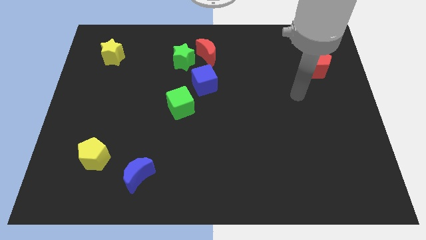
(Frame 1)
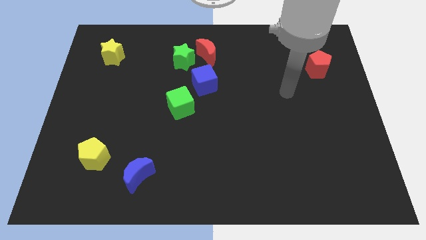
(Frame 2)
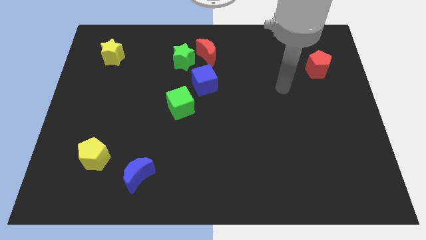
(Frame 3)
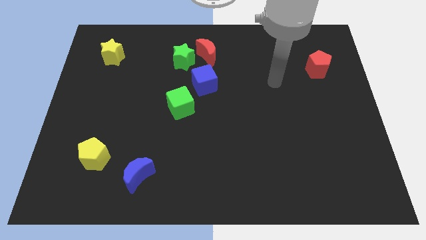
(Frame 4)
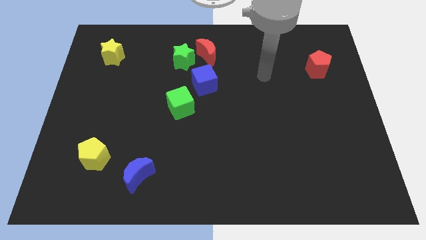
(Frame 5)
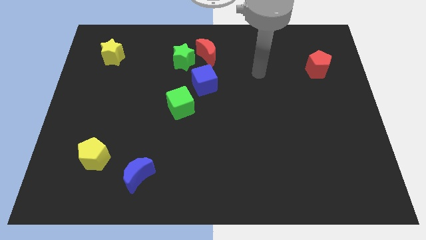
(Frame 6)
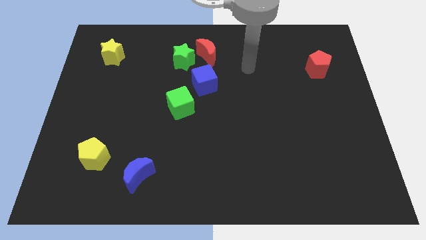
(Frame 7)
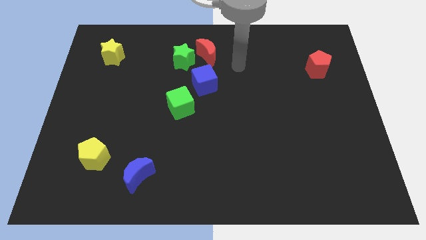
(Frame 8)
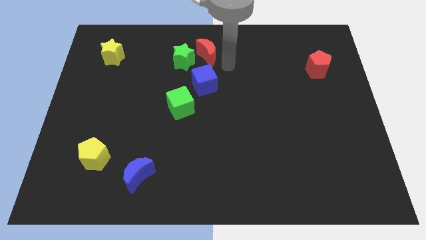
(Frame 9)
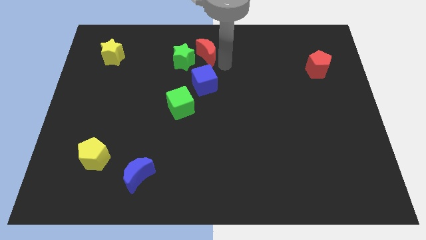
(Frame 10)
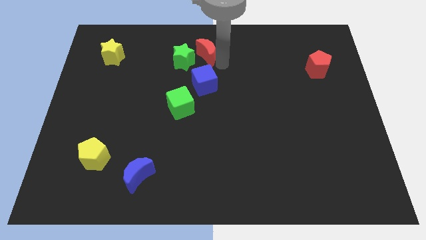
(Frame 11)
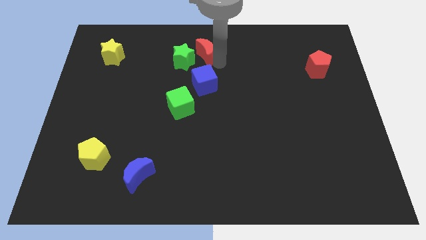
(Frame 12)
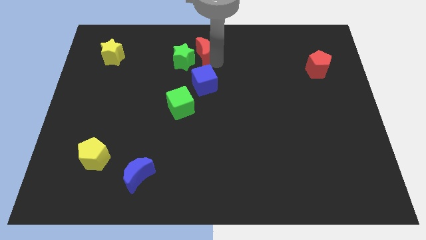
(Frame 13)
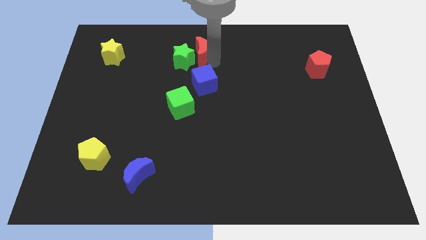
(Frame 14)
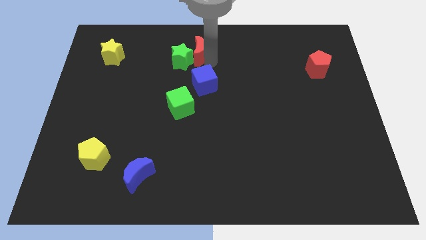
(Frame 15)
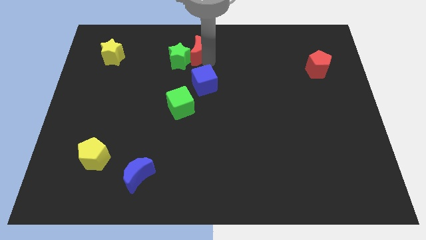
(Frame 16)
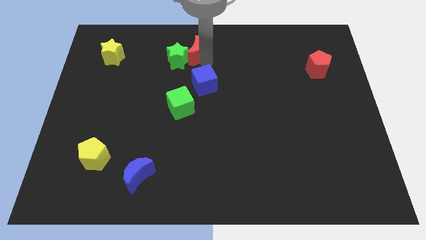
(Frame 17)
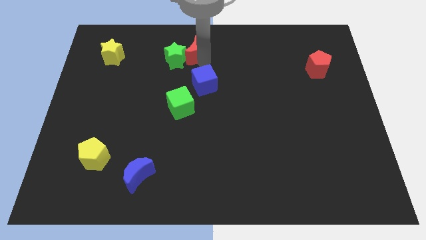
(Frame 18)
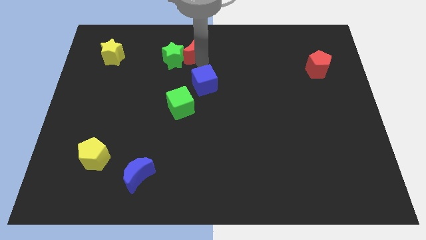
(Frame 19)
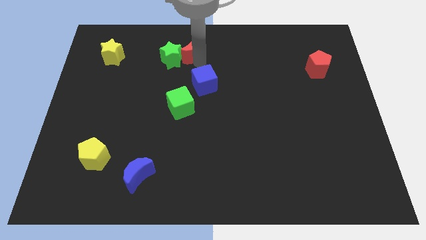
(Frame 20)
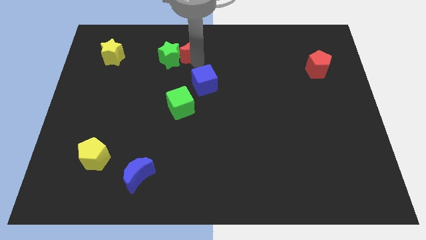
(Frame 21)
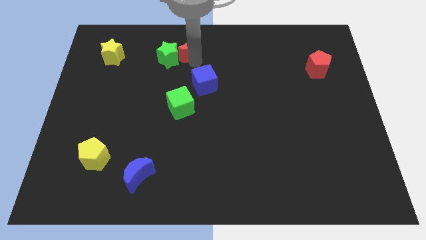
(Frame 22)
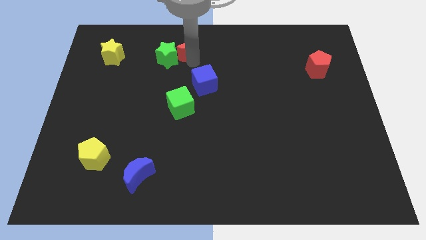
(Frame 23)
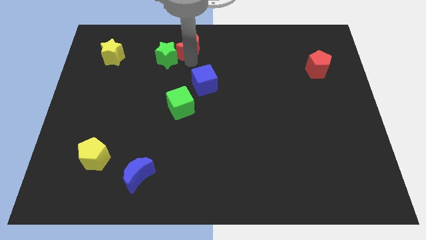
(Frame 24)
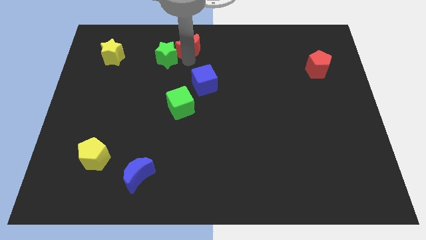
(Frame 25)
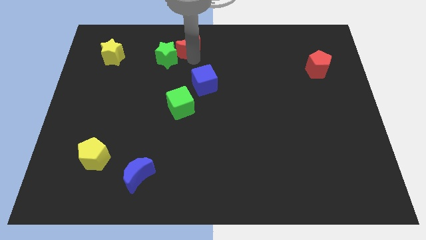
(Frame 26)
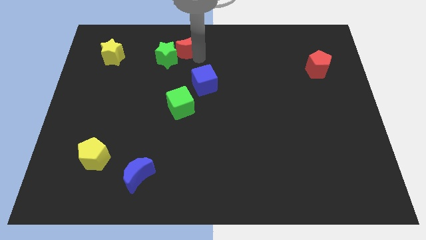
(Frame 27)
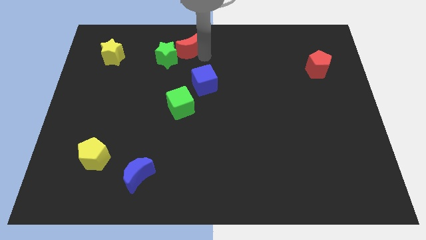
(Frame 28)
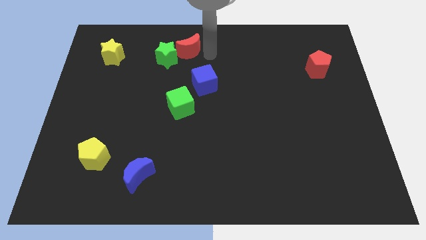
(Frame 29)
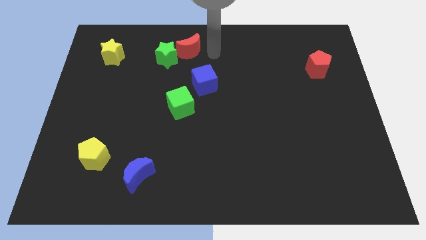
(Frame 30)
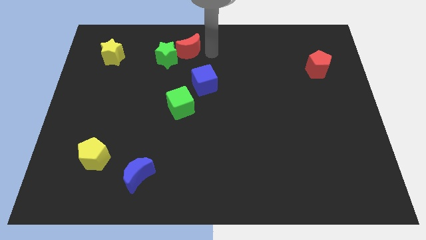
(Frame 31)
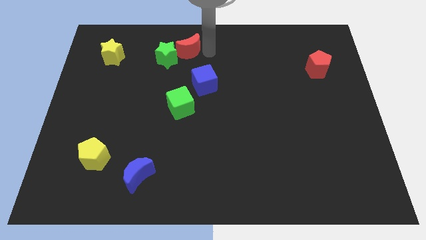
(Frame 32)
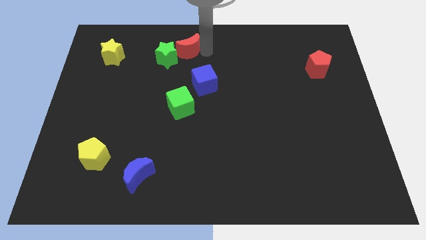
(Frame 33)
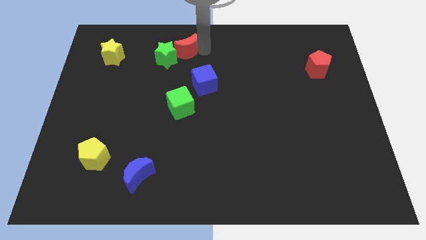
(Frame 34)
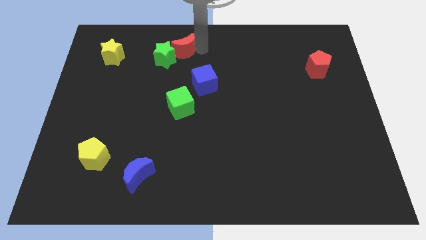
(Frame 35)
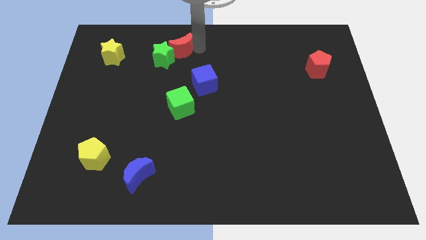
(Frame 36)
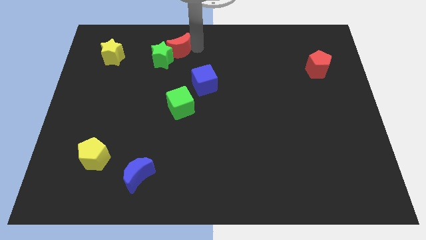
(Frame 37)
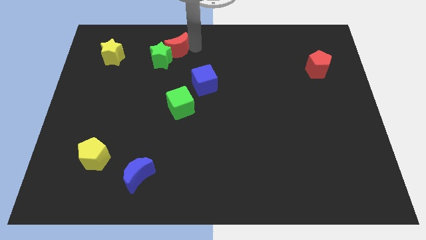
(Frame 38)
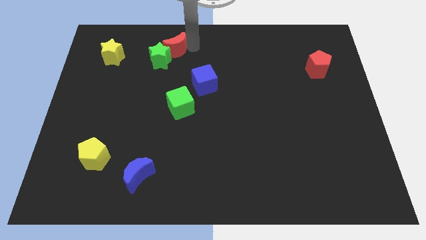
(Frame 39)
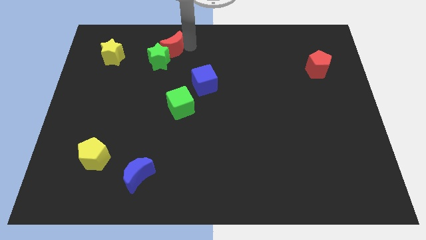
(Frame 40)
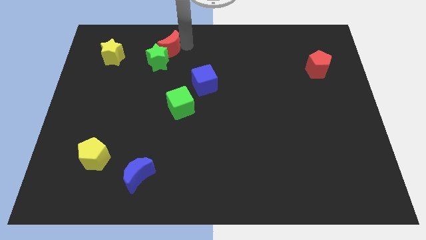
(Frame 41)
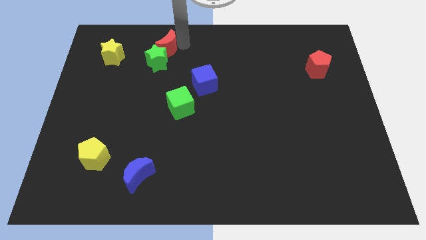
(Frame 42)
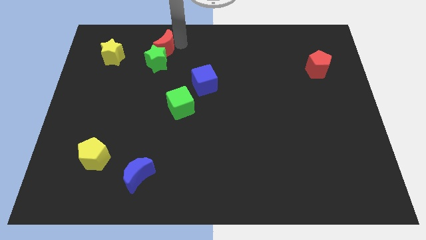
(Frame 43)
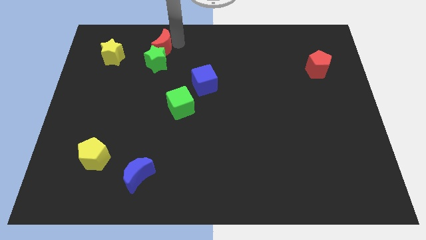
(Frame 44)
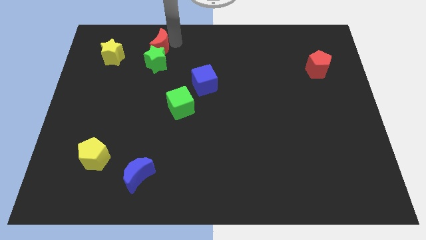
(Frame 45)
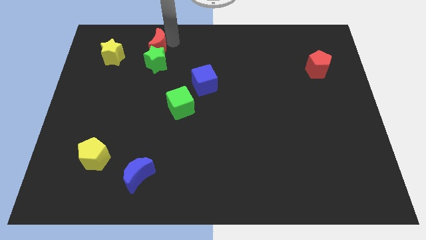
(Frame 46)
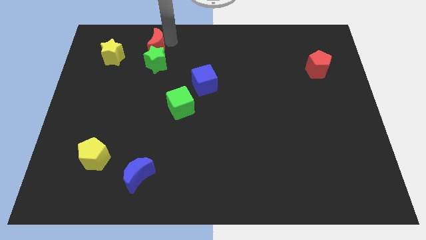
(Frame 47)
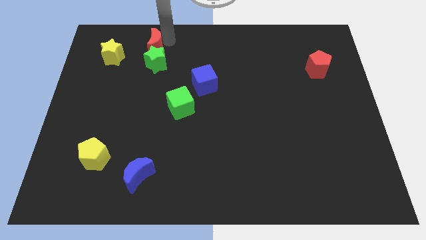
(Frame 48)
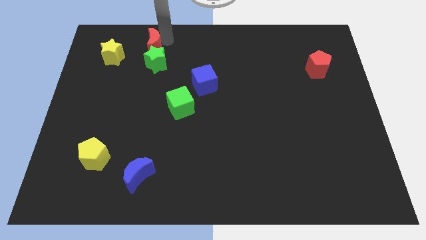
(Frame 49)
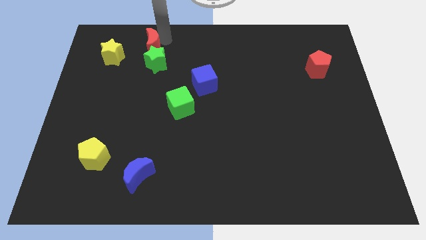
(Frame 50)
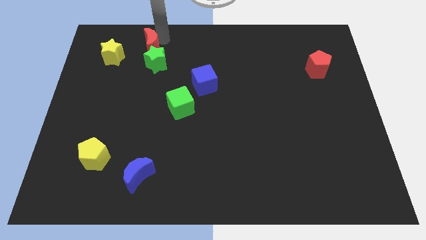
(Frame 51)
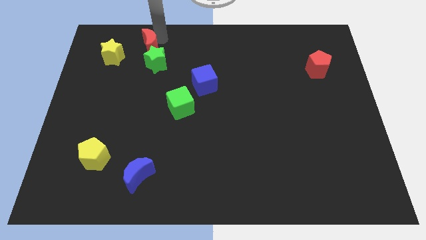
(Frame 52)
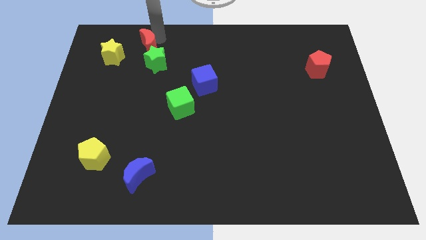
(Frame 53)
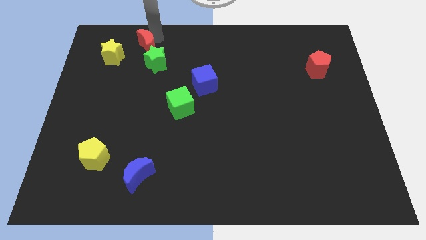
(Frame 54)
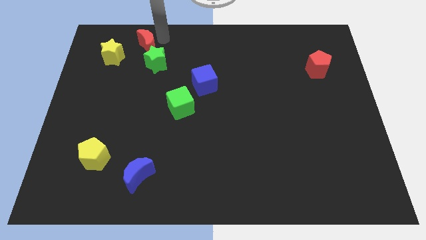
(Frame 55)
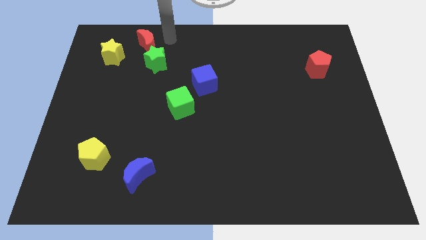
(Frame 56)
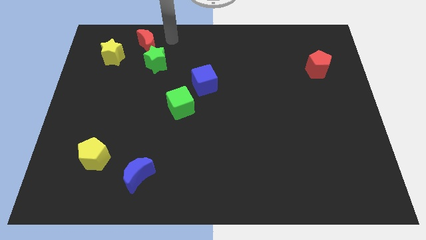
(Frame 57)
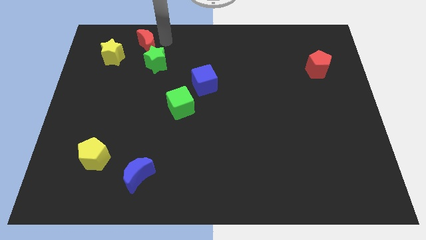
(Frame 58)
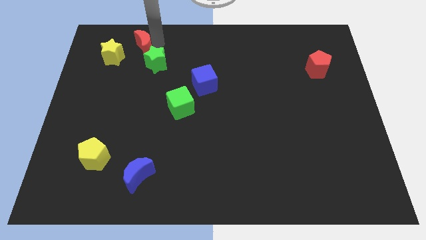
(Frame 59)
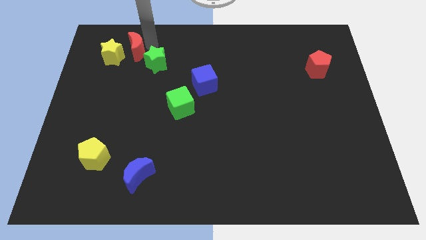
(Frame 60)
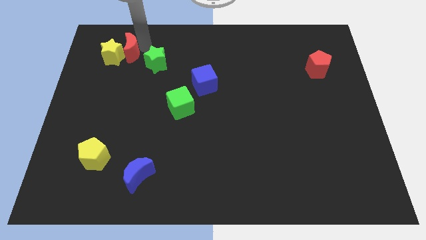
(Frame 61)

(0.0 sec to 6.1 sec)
move the red moon to the yellow star

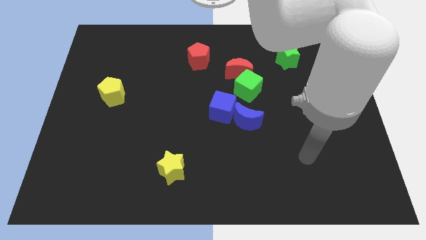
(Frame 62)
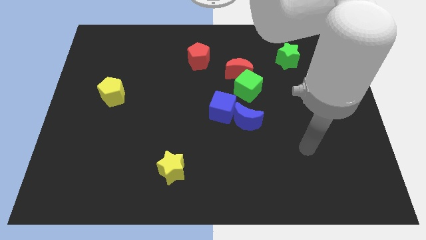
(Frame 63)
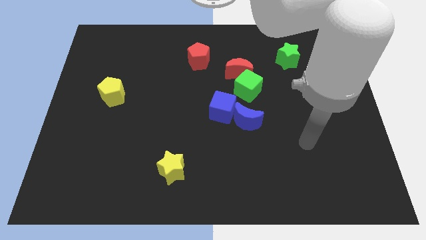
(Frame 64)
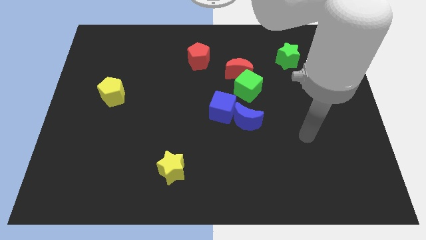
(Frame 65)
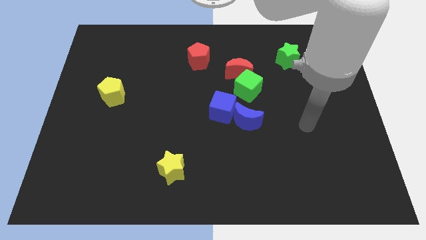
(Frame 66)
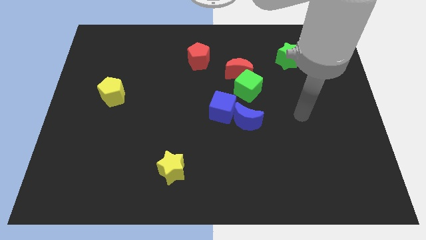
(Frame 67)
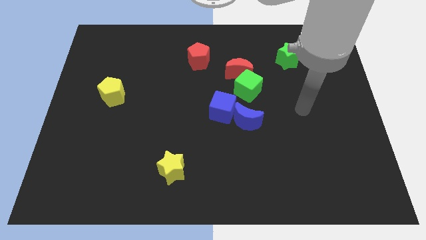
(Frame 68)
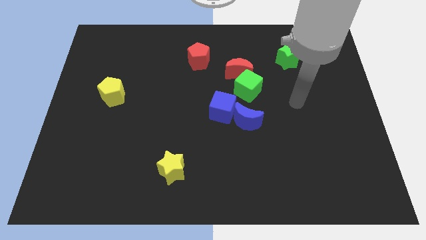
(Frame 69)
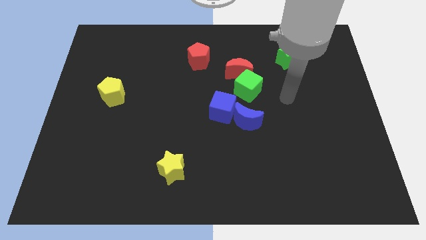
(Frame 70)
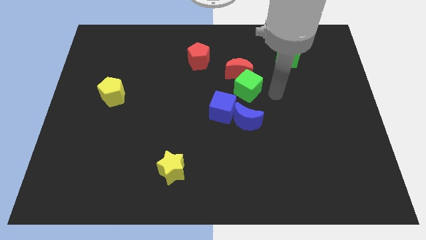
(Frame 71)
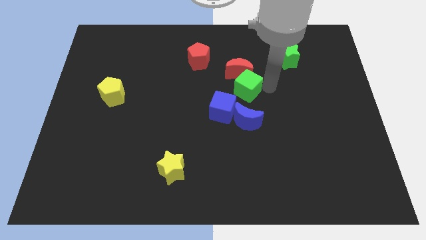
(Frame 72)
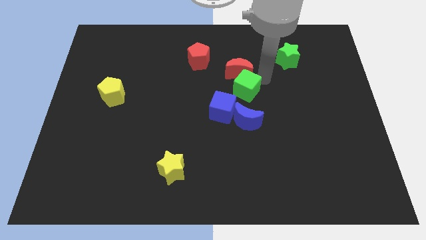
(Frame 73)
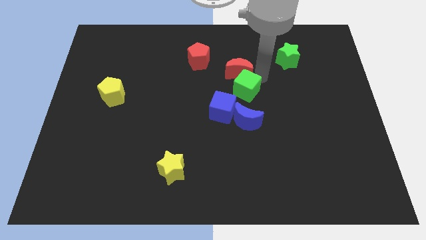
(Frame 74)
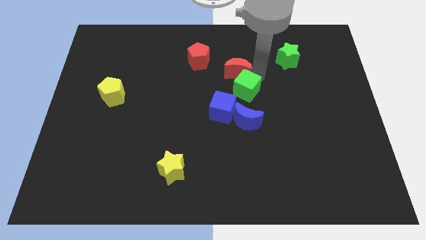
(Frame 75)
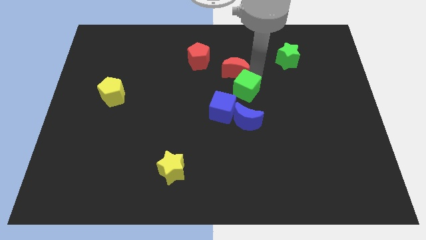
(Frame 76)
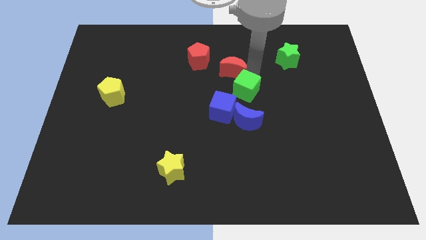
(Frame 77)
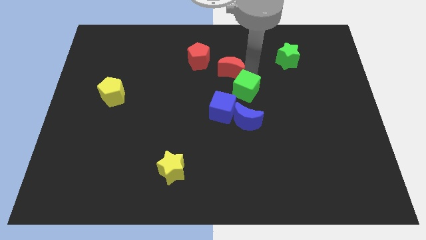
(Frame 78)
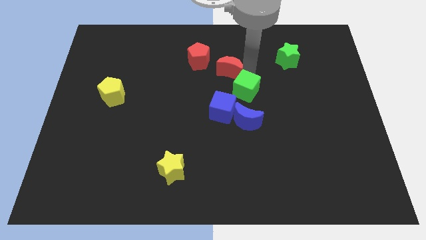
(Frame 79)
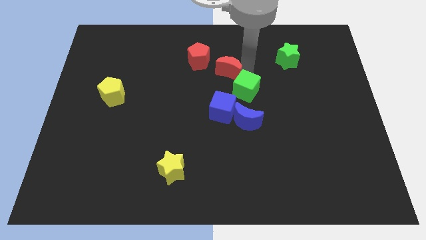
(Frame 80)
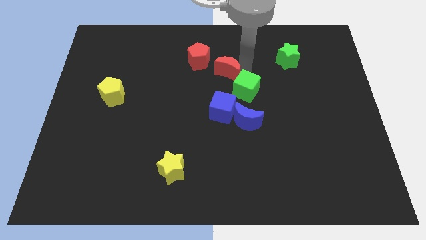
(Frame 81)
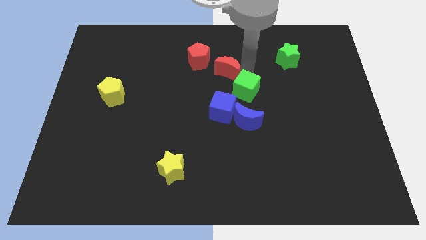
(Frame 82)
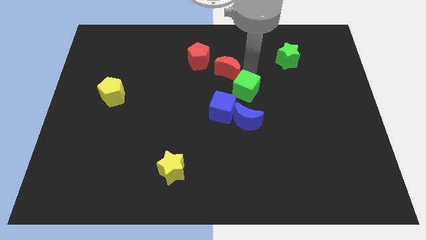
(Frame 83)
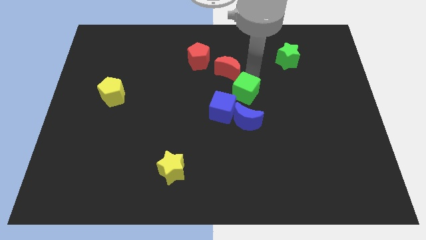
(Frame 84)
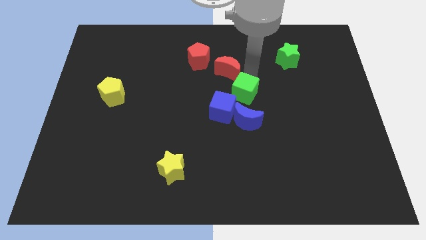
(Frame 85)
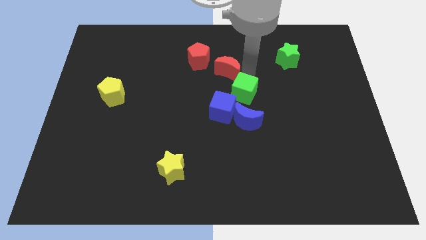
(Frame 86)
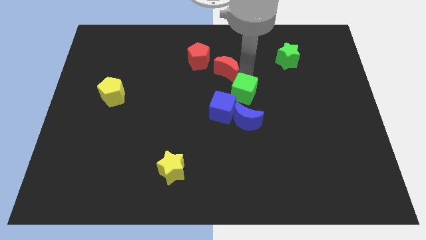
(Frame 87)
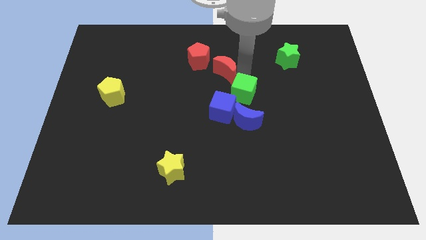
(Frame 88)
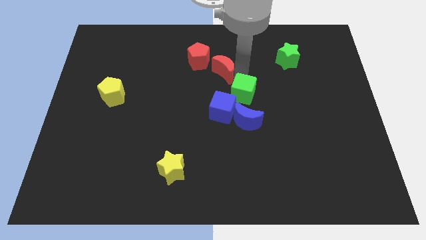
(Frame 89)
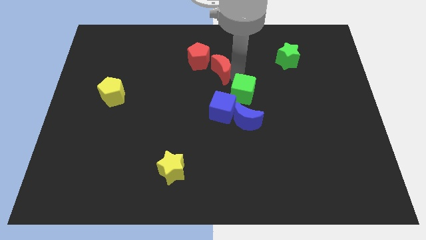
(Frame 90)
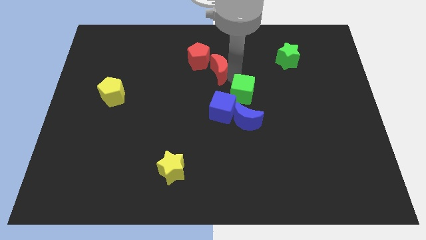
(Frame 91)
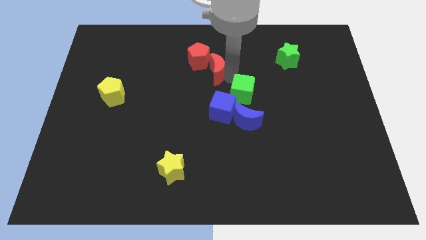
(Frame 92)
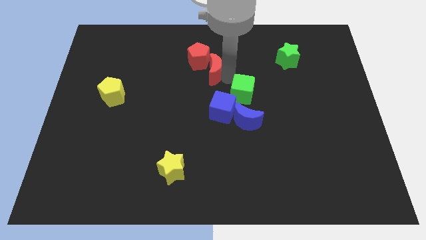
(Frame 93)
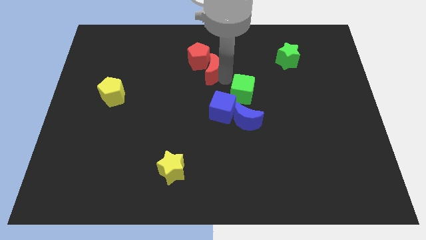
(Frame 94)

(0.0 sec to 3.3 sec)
put the red moon to the red pentagon
